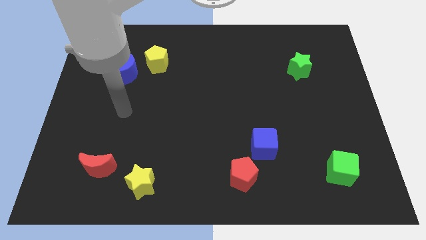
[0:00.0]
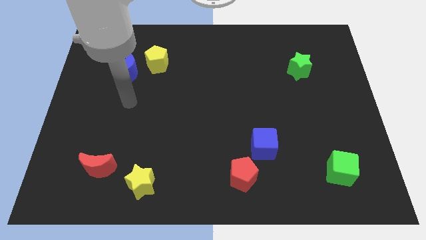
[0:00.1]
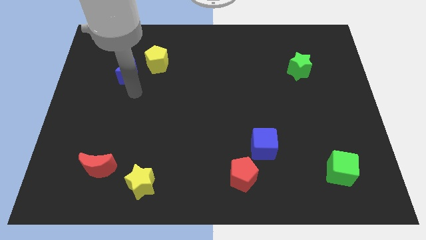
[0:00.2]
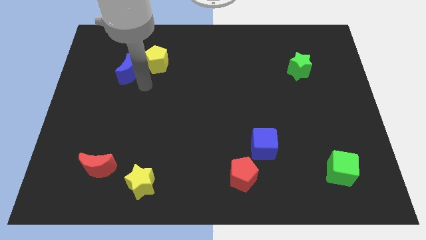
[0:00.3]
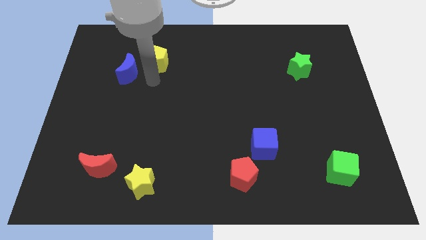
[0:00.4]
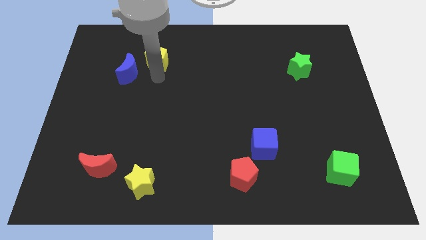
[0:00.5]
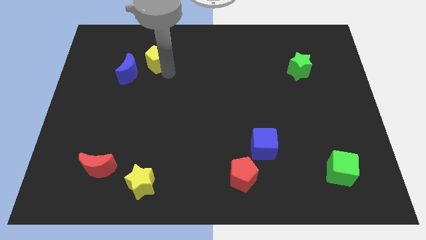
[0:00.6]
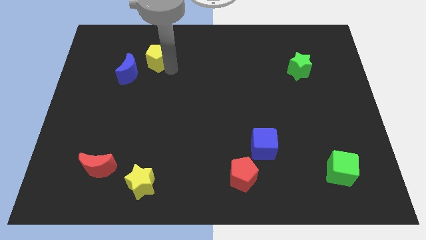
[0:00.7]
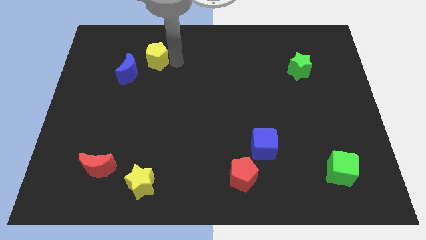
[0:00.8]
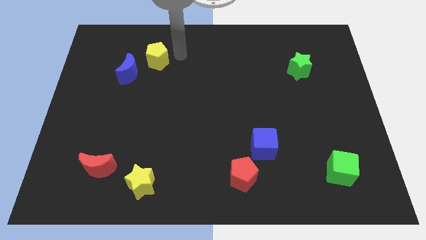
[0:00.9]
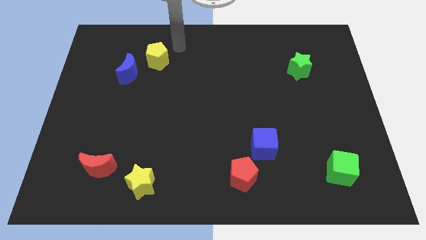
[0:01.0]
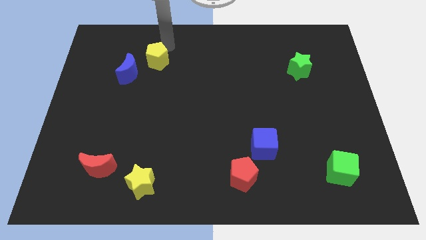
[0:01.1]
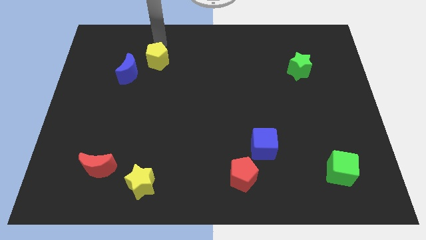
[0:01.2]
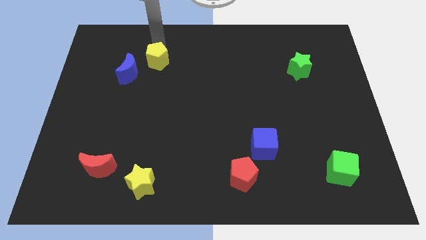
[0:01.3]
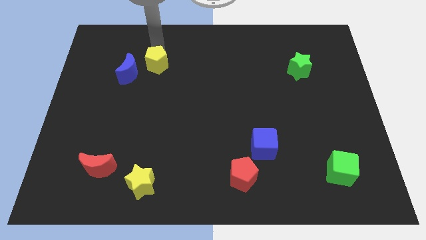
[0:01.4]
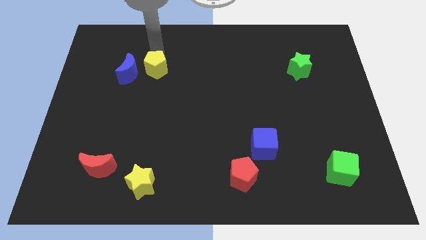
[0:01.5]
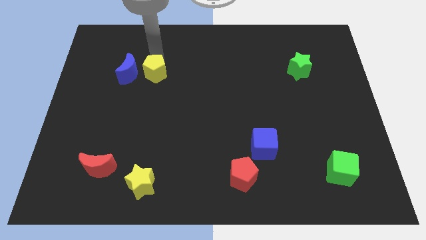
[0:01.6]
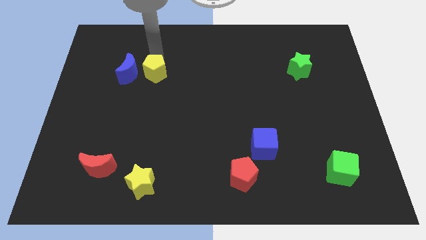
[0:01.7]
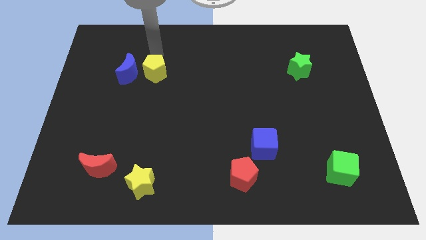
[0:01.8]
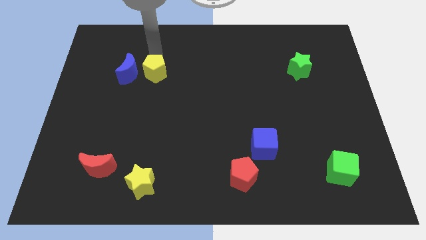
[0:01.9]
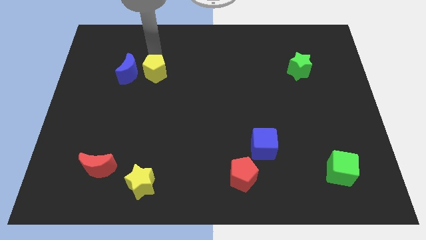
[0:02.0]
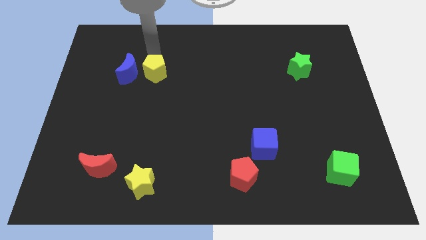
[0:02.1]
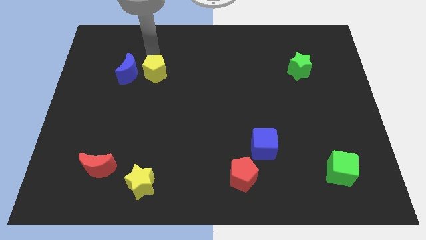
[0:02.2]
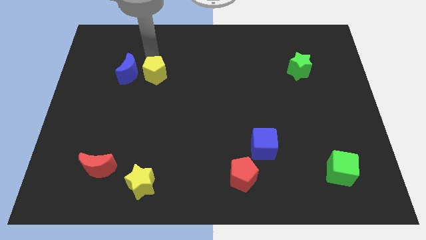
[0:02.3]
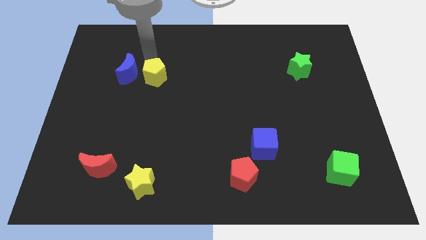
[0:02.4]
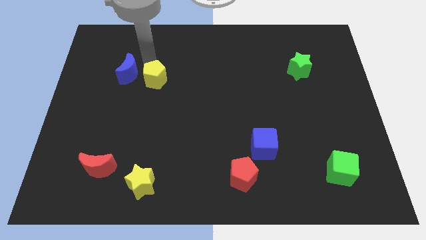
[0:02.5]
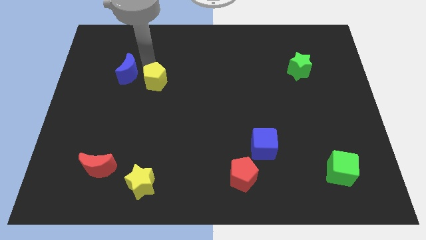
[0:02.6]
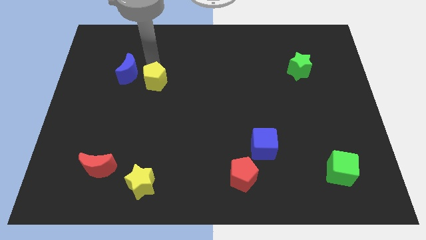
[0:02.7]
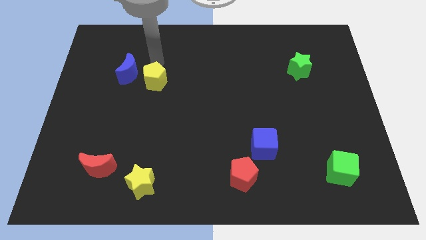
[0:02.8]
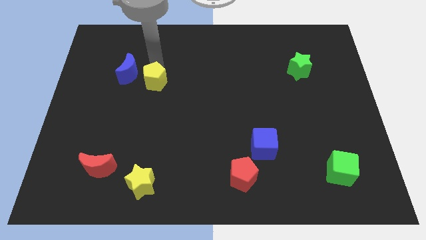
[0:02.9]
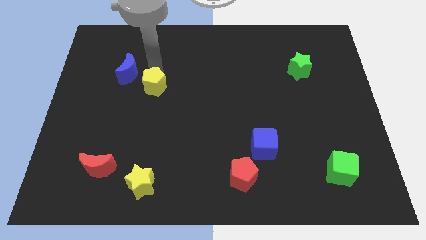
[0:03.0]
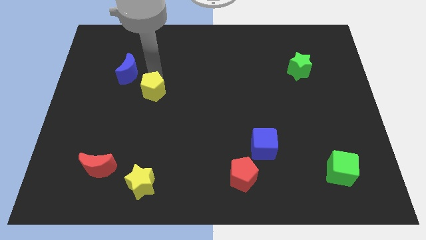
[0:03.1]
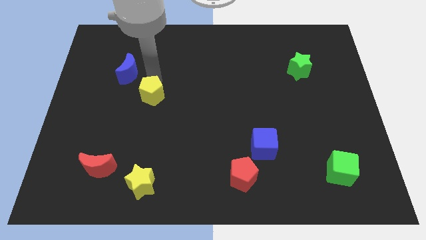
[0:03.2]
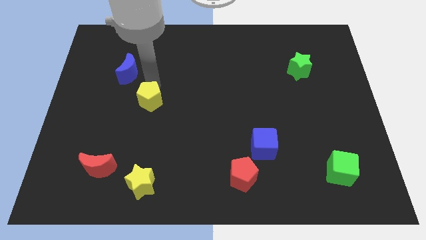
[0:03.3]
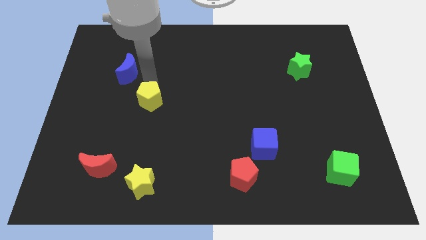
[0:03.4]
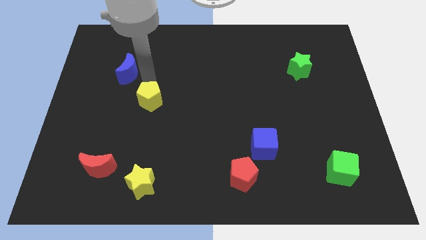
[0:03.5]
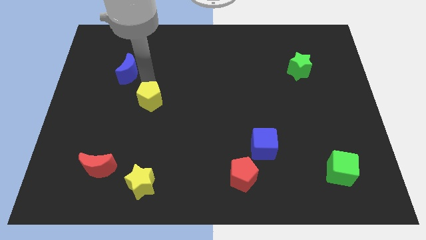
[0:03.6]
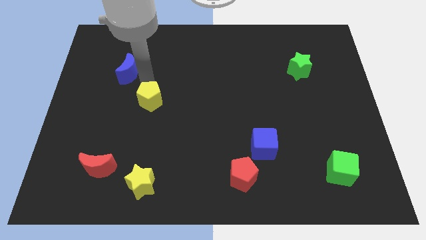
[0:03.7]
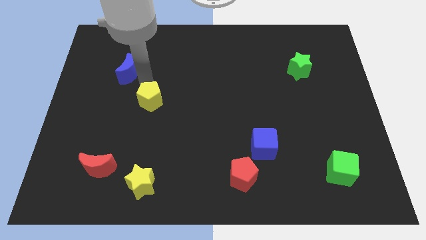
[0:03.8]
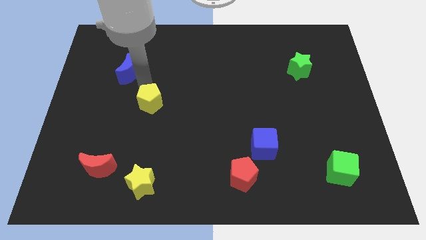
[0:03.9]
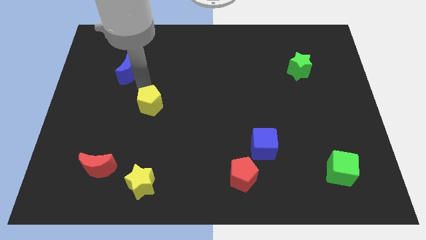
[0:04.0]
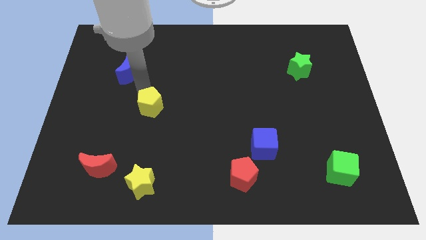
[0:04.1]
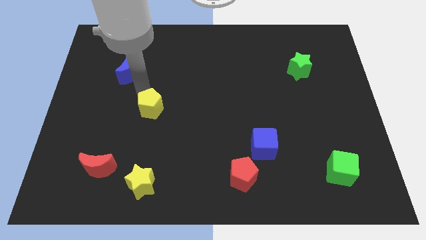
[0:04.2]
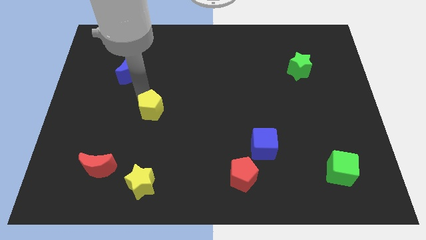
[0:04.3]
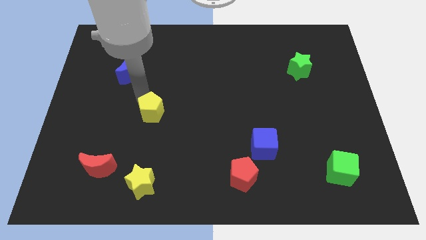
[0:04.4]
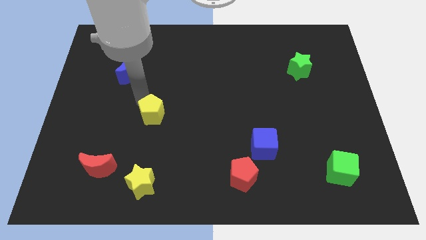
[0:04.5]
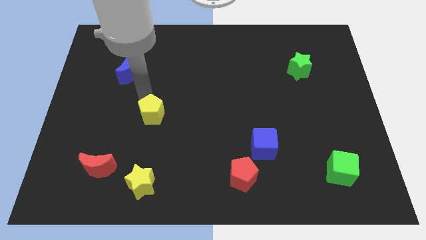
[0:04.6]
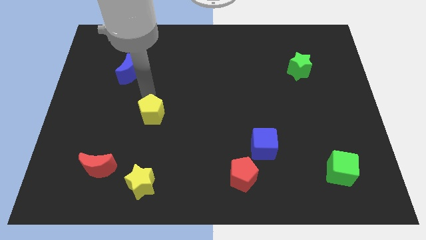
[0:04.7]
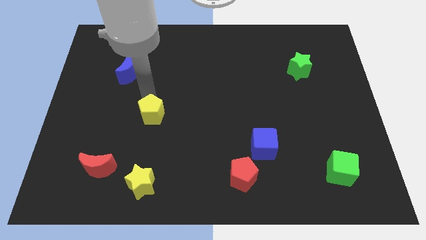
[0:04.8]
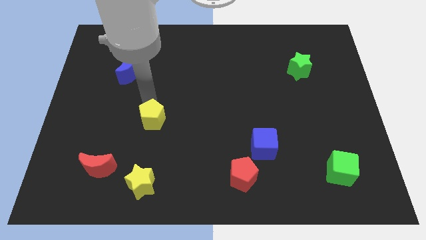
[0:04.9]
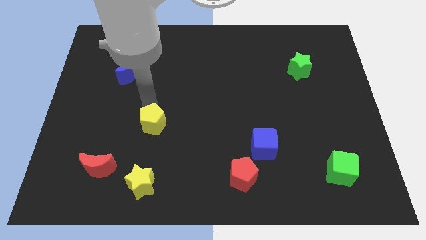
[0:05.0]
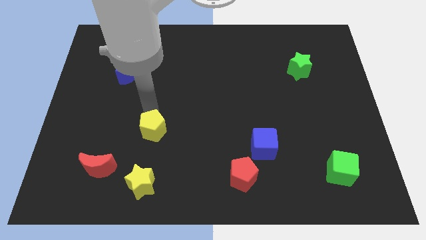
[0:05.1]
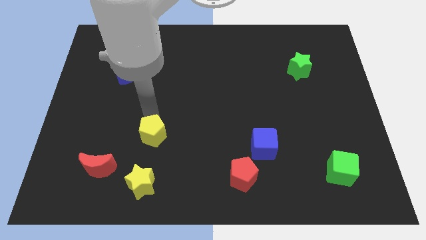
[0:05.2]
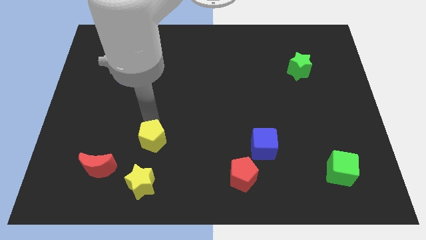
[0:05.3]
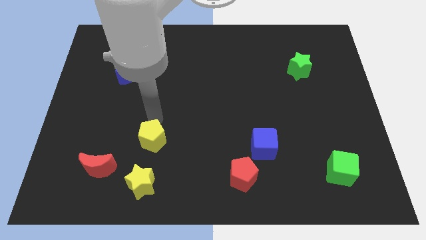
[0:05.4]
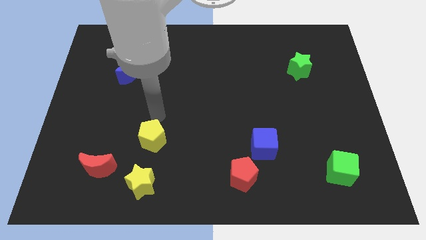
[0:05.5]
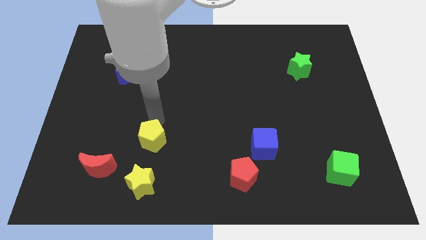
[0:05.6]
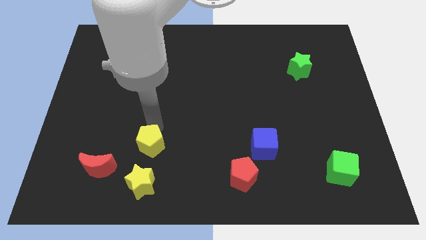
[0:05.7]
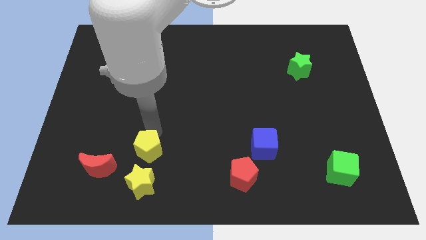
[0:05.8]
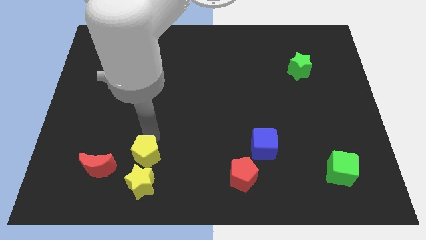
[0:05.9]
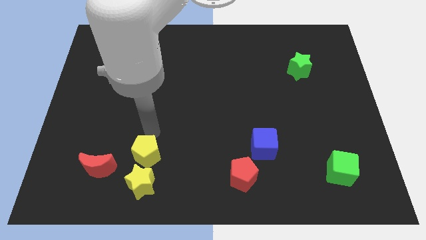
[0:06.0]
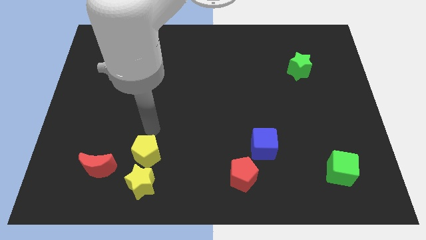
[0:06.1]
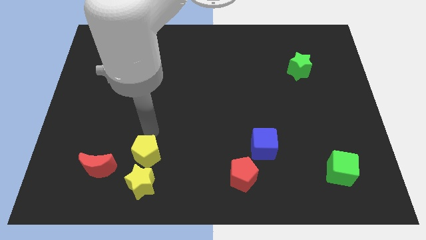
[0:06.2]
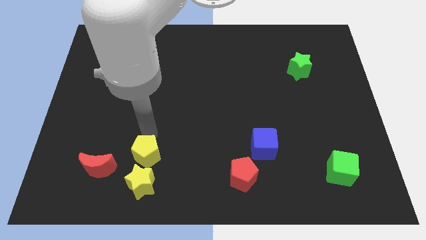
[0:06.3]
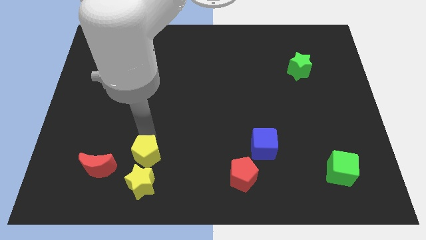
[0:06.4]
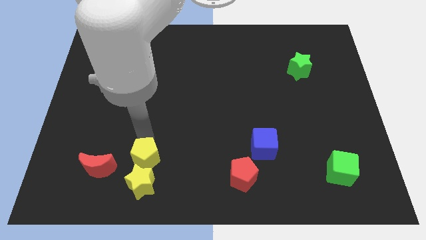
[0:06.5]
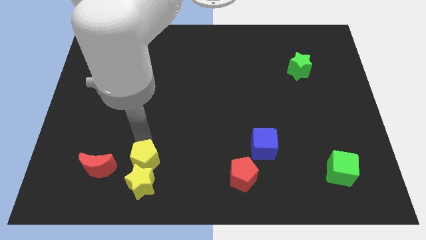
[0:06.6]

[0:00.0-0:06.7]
slide the yellow pentagon towards the yellow star

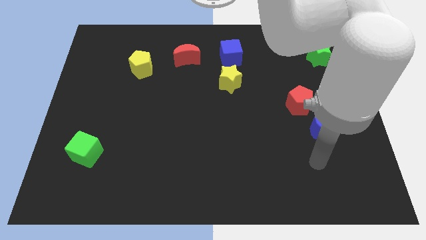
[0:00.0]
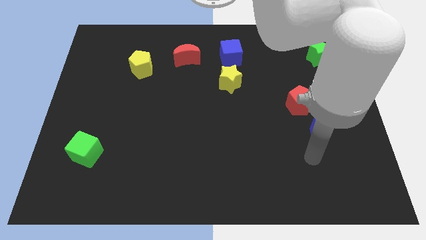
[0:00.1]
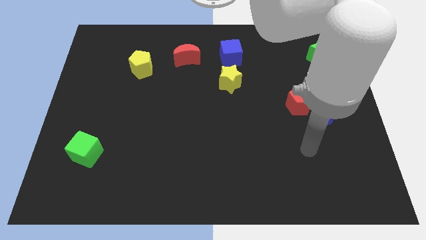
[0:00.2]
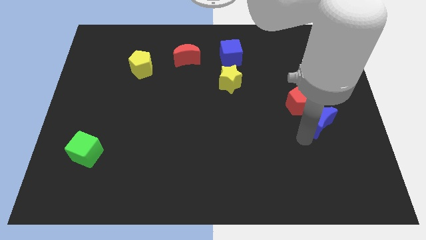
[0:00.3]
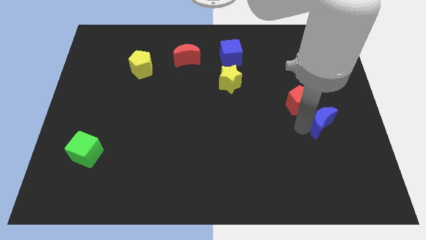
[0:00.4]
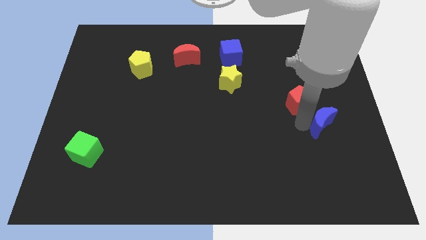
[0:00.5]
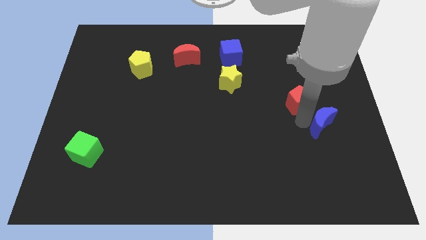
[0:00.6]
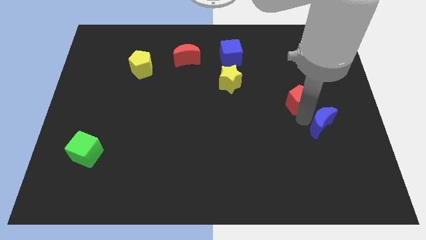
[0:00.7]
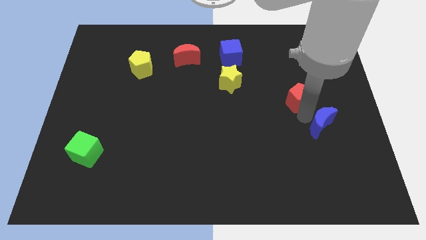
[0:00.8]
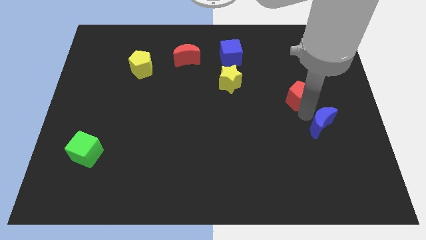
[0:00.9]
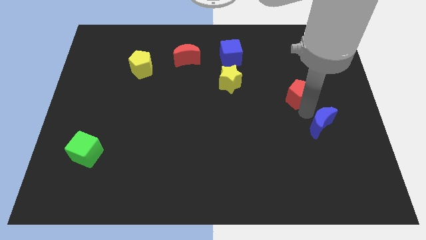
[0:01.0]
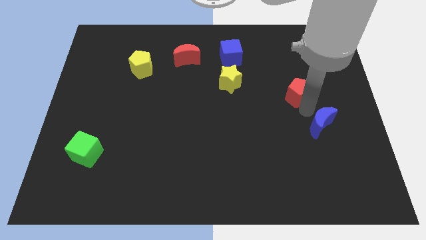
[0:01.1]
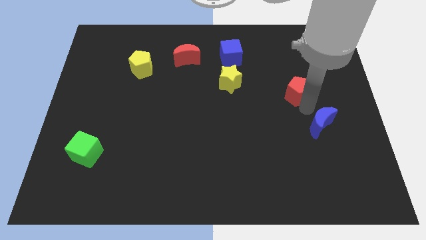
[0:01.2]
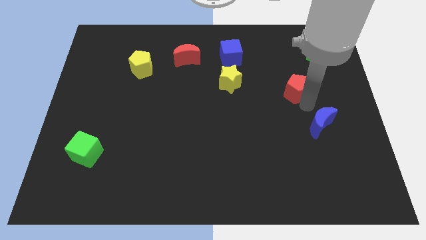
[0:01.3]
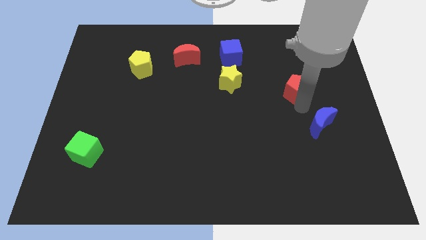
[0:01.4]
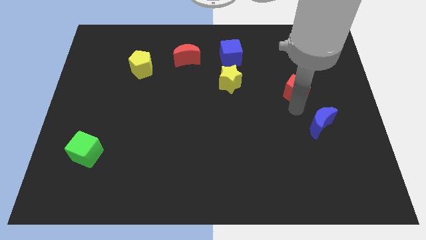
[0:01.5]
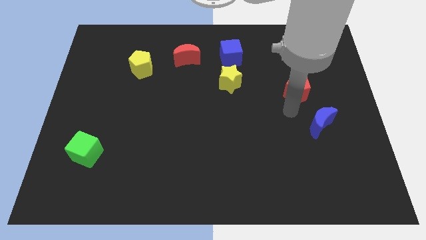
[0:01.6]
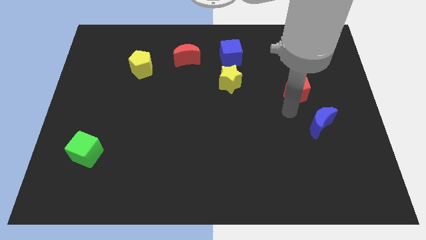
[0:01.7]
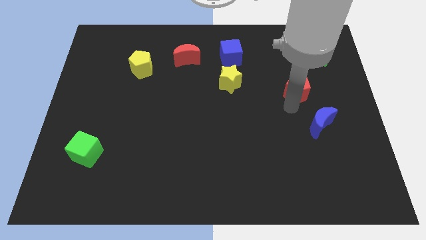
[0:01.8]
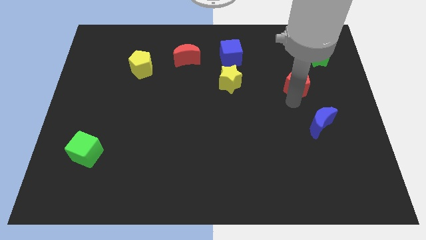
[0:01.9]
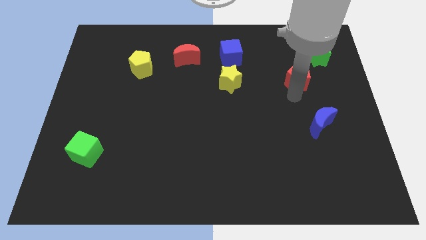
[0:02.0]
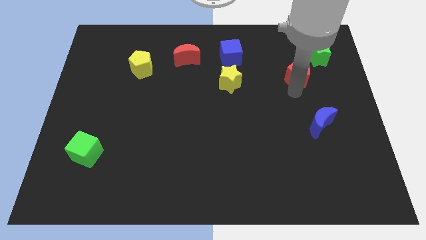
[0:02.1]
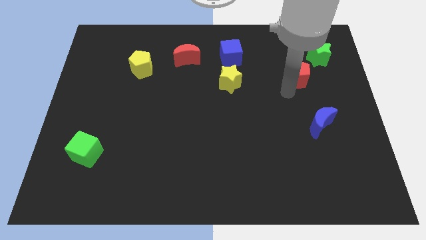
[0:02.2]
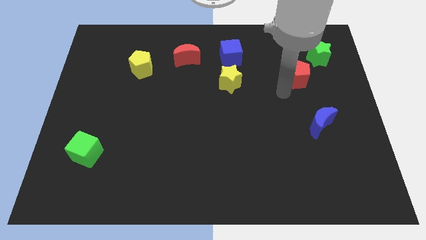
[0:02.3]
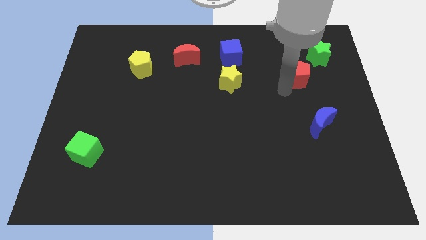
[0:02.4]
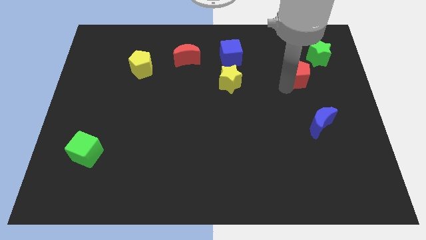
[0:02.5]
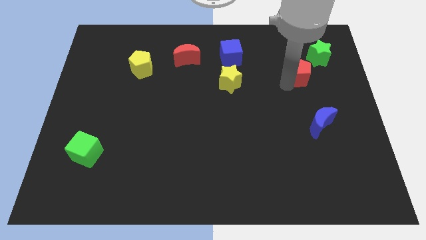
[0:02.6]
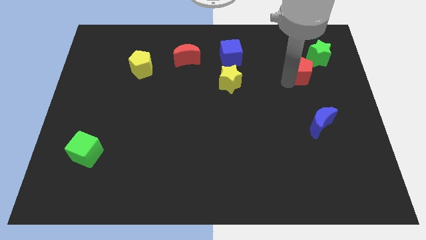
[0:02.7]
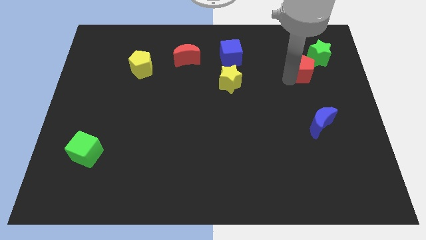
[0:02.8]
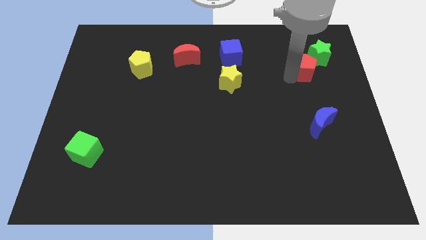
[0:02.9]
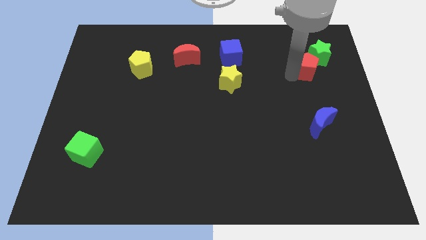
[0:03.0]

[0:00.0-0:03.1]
put the red pentagon towards the green star
